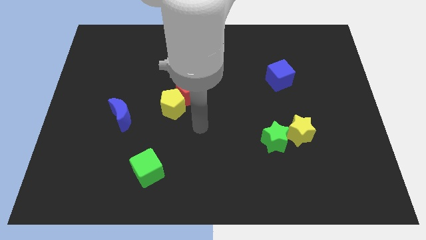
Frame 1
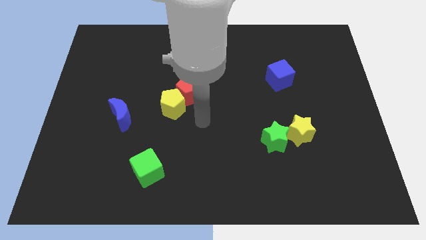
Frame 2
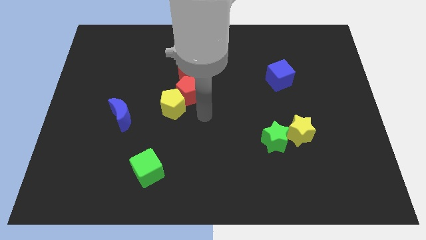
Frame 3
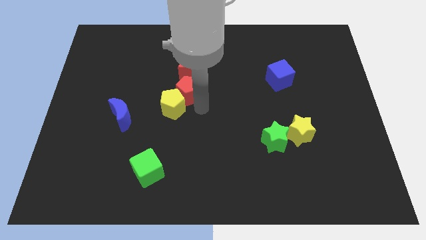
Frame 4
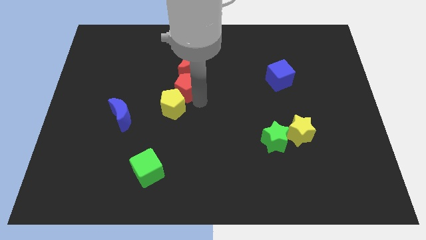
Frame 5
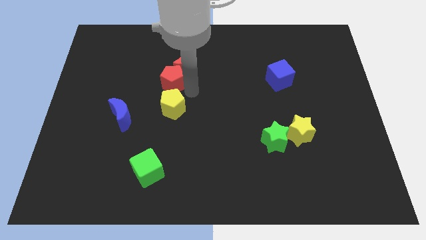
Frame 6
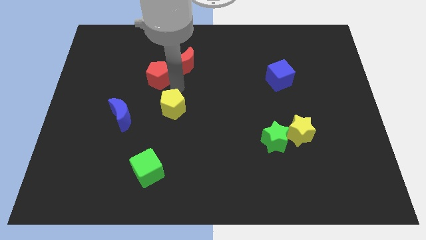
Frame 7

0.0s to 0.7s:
move the yellow pentagon away from the red pentagon

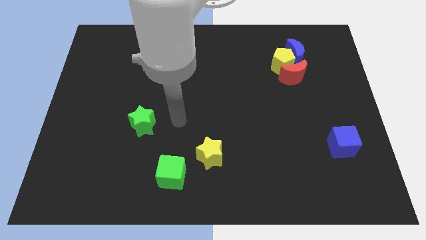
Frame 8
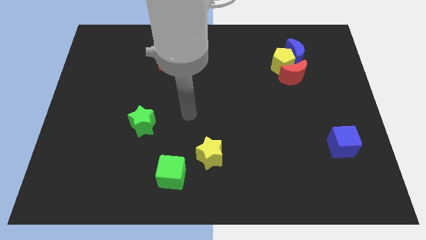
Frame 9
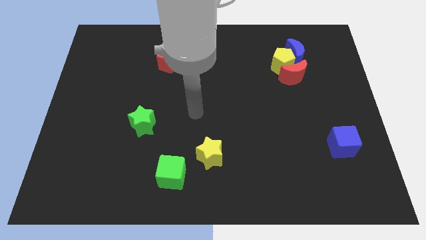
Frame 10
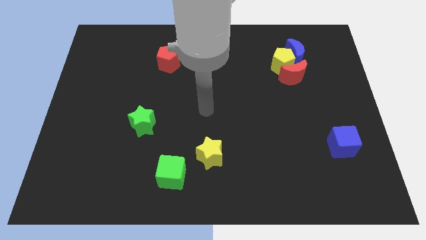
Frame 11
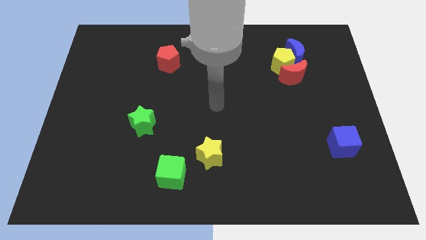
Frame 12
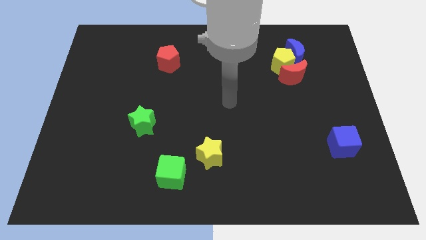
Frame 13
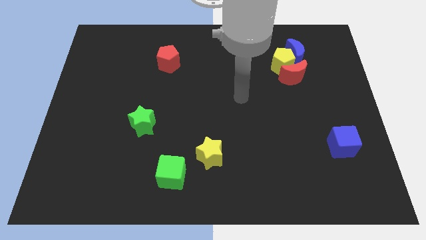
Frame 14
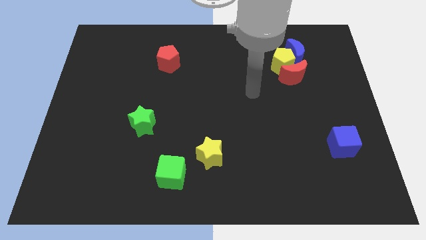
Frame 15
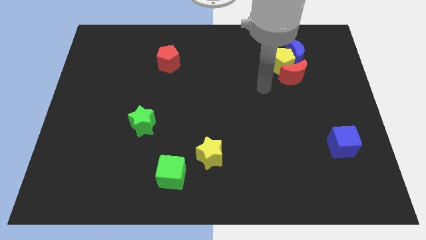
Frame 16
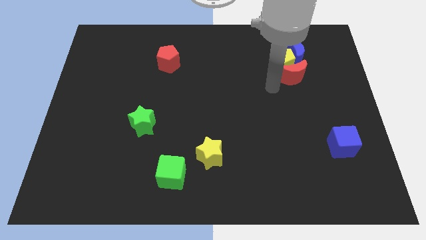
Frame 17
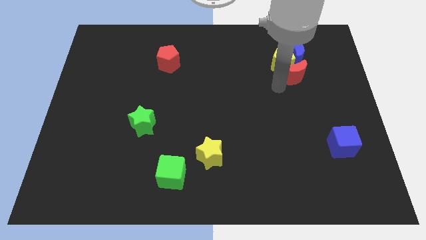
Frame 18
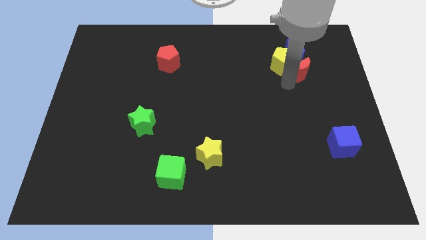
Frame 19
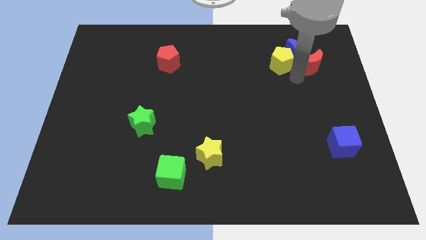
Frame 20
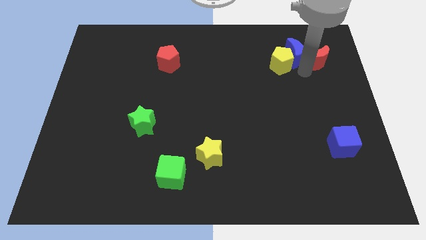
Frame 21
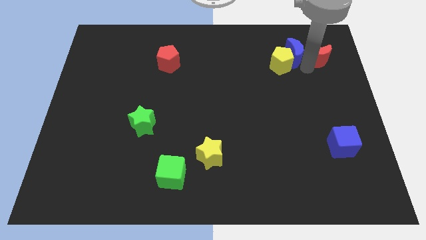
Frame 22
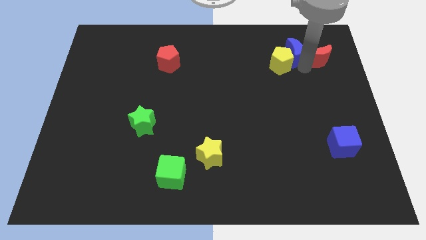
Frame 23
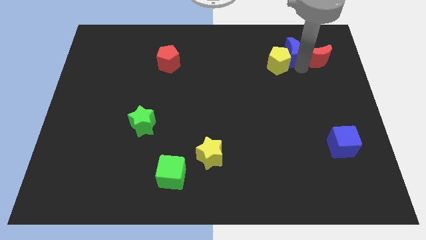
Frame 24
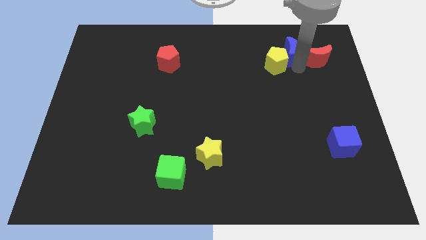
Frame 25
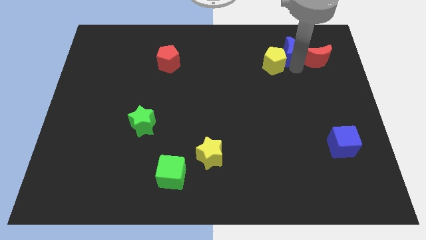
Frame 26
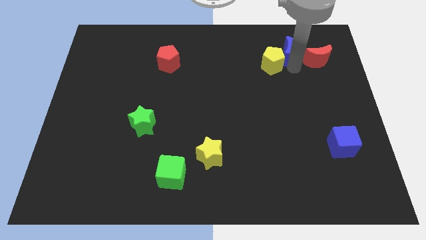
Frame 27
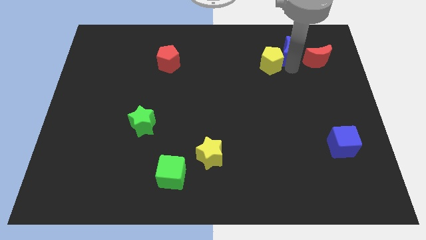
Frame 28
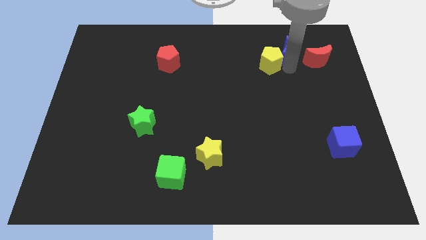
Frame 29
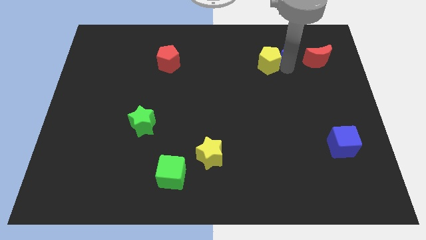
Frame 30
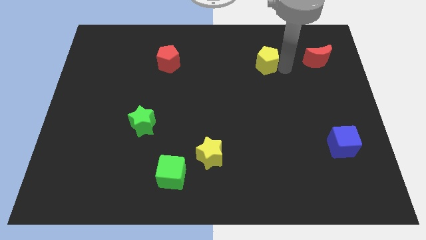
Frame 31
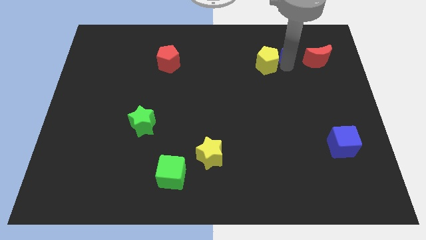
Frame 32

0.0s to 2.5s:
separate the yellow pentagon from the blue moon and red moon

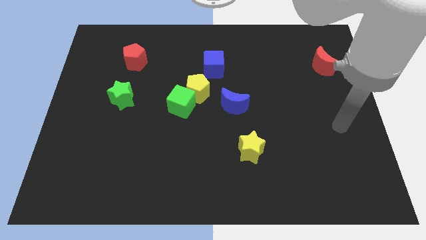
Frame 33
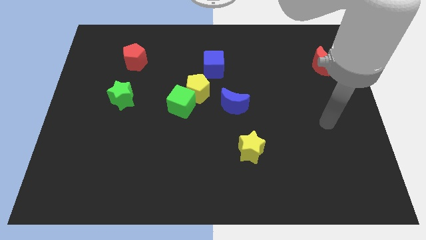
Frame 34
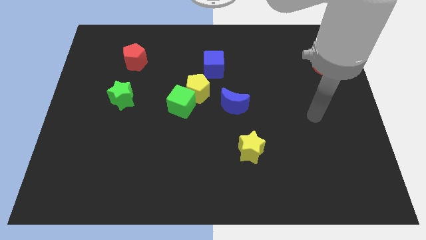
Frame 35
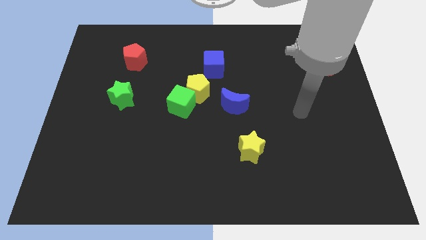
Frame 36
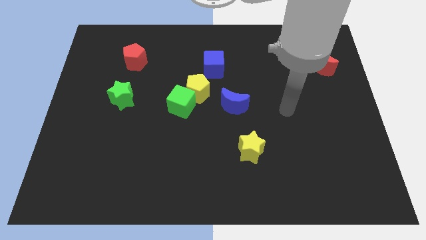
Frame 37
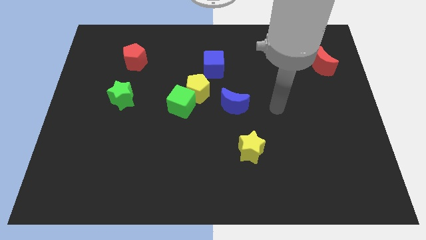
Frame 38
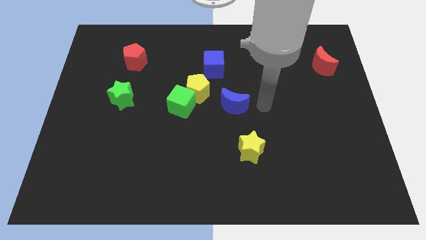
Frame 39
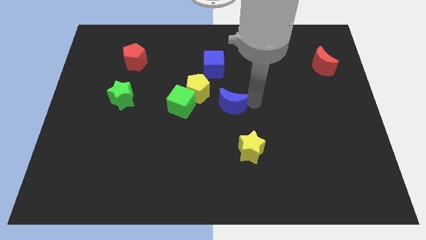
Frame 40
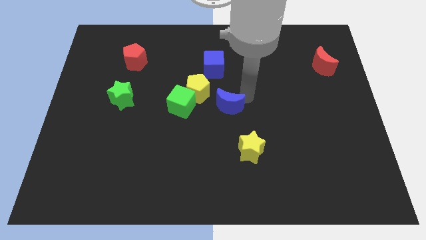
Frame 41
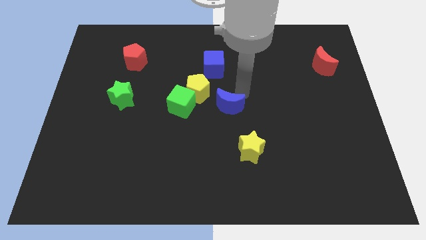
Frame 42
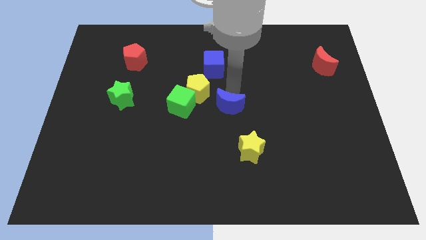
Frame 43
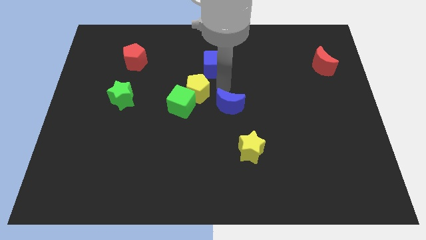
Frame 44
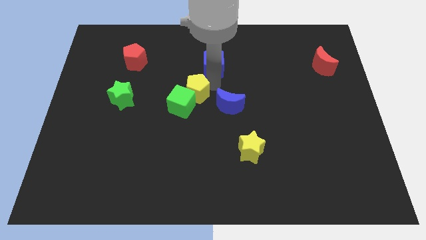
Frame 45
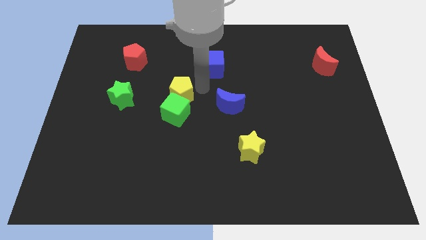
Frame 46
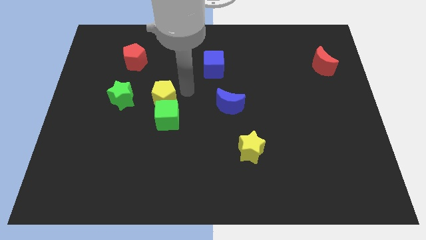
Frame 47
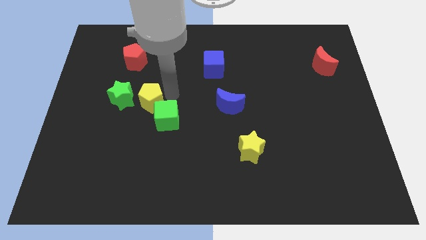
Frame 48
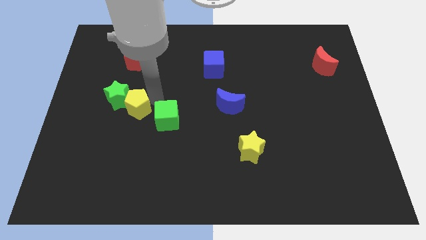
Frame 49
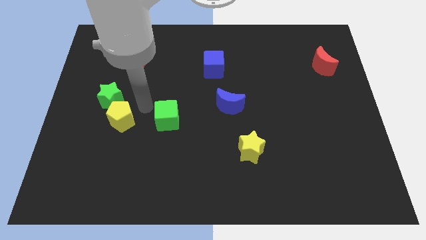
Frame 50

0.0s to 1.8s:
separate the green cube from the yellow pentagon

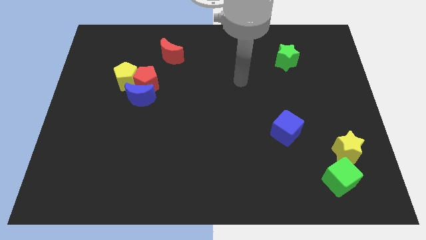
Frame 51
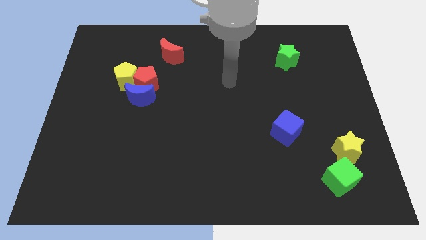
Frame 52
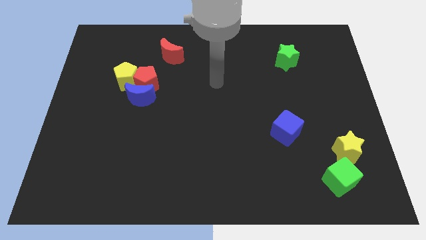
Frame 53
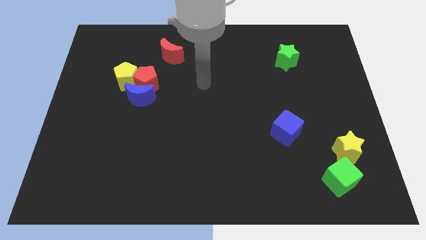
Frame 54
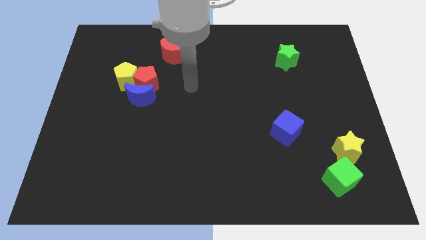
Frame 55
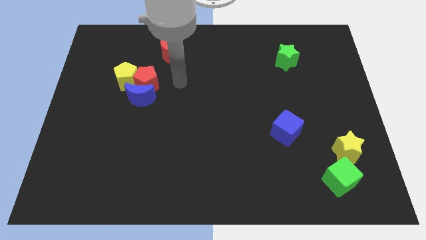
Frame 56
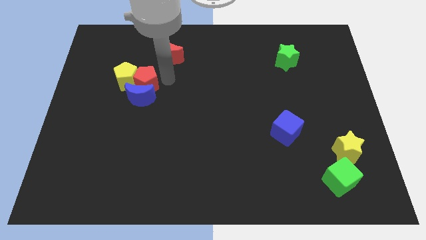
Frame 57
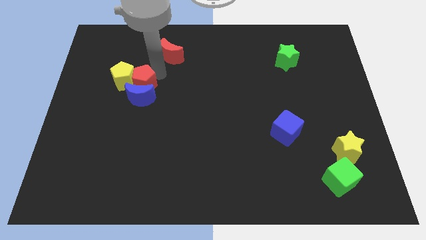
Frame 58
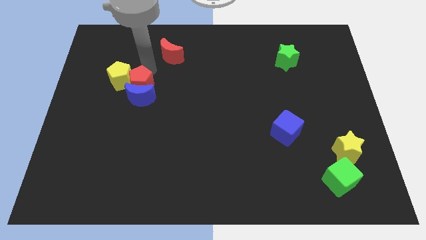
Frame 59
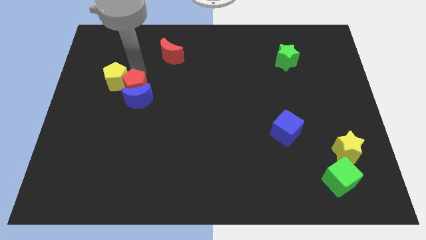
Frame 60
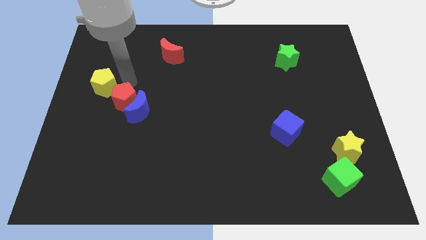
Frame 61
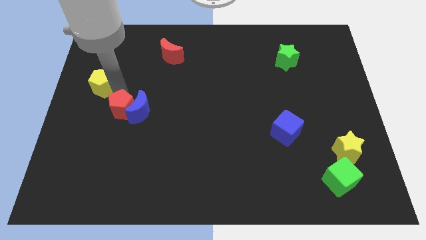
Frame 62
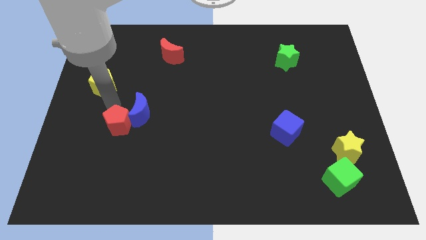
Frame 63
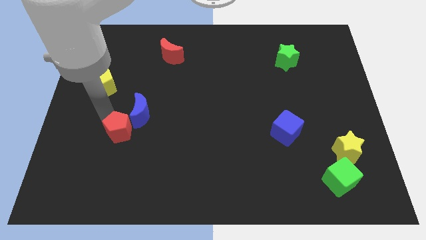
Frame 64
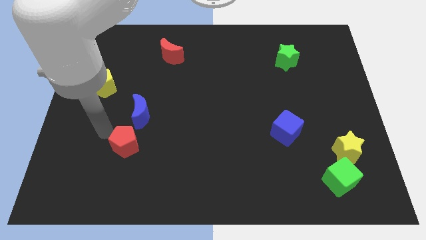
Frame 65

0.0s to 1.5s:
pull the red pentagon apart from the blue moon and yellow pentagon

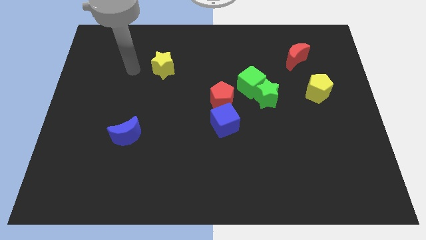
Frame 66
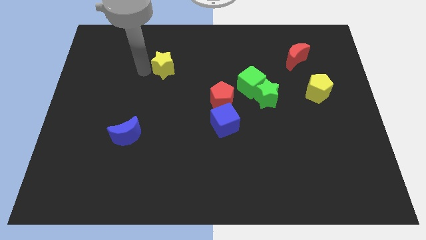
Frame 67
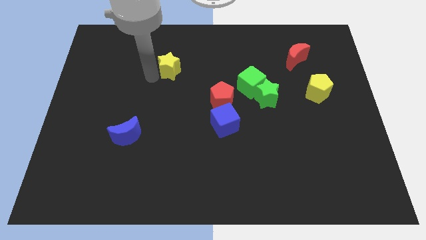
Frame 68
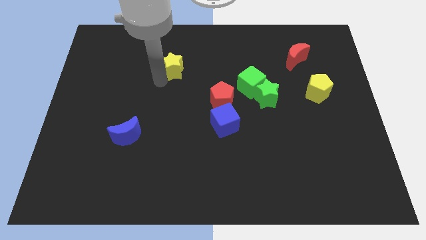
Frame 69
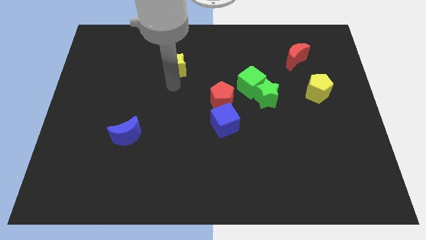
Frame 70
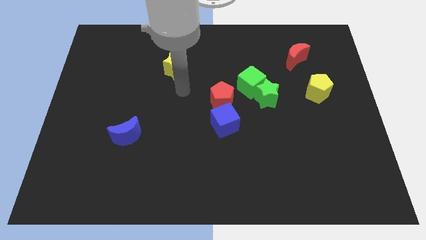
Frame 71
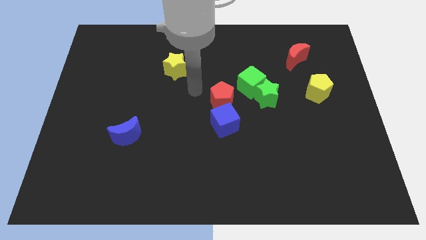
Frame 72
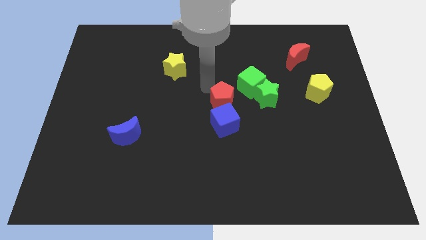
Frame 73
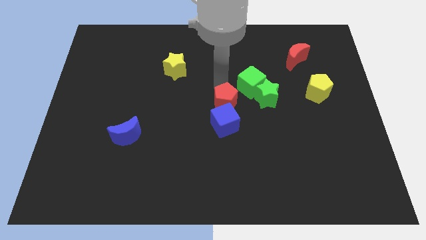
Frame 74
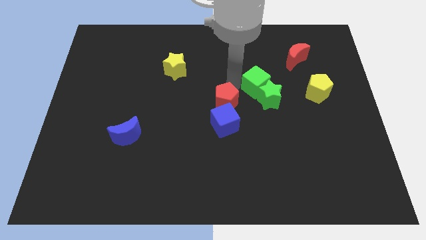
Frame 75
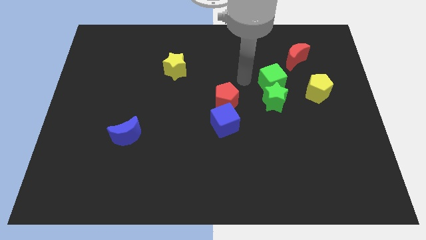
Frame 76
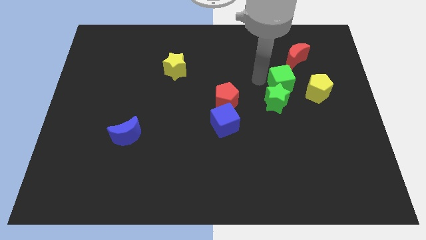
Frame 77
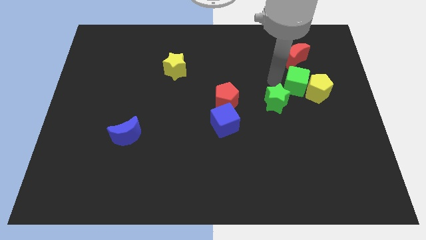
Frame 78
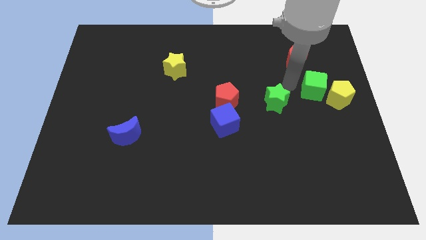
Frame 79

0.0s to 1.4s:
move the green star away from the green cube

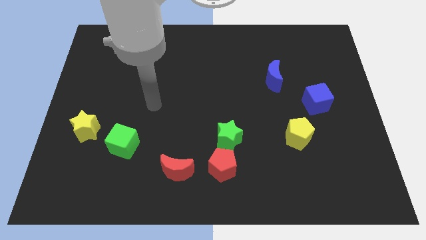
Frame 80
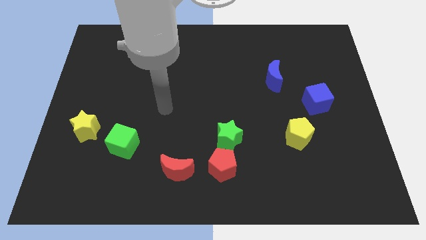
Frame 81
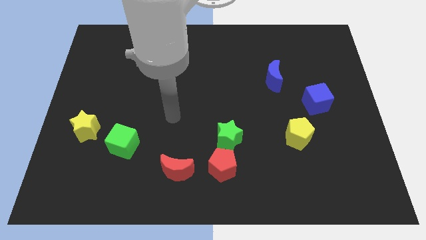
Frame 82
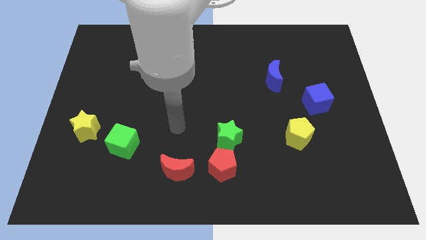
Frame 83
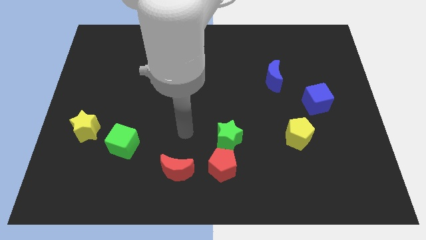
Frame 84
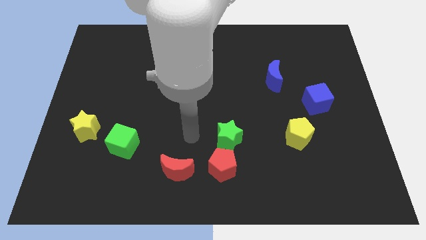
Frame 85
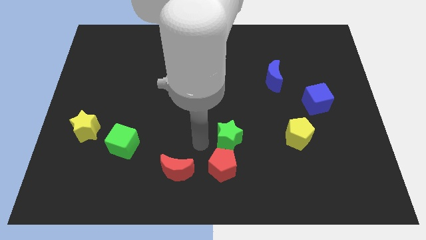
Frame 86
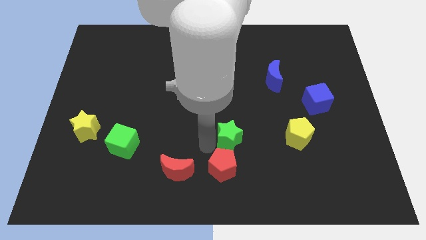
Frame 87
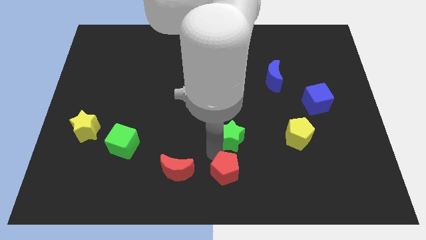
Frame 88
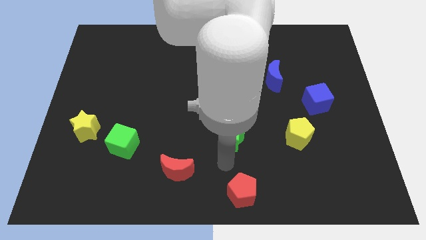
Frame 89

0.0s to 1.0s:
move the green star away from the red pentagon

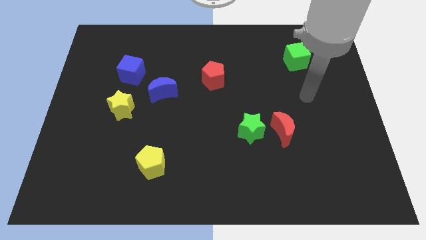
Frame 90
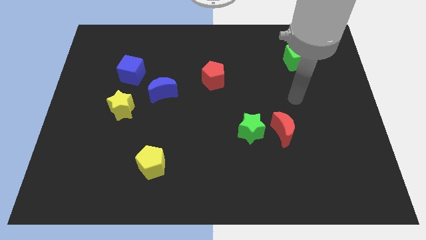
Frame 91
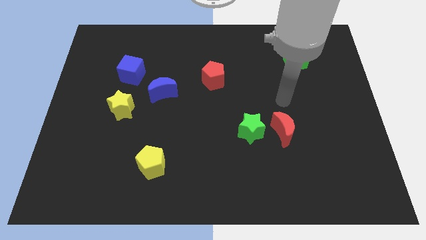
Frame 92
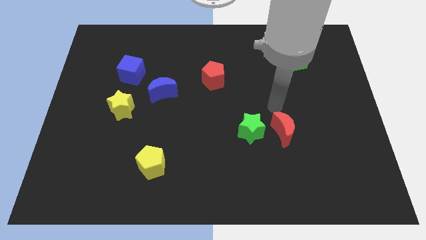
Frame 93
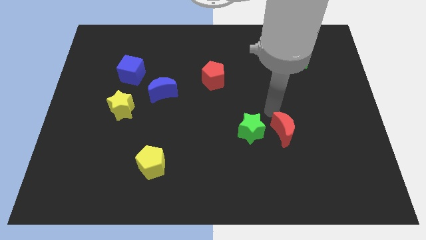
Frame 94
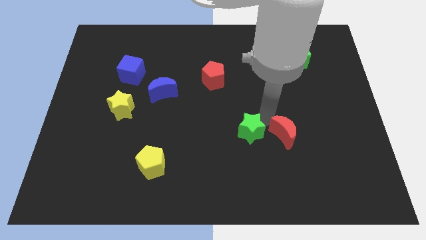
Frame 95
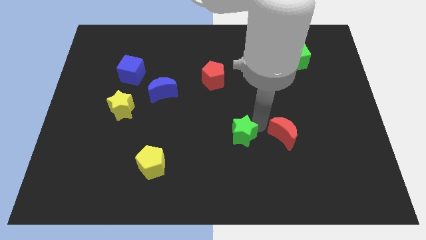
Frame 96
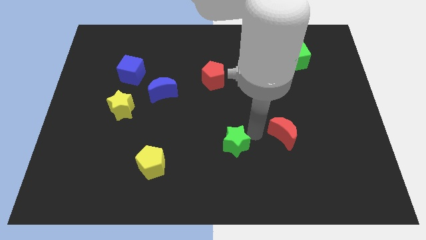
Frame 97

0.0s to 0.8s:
pull the red moon apart from the green star
